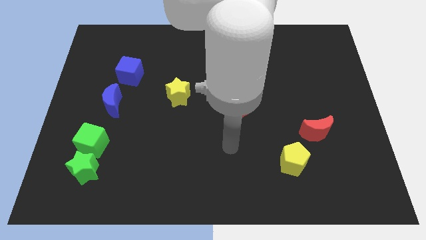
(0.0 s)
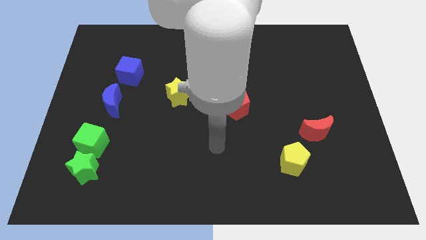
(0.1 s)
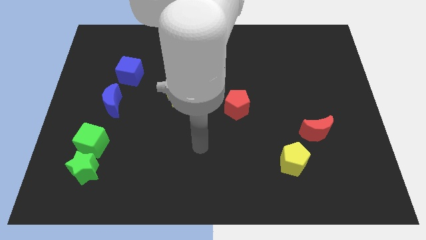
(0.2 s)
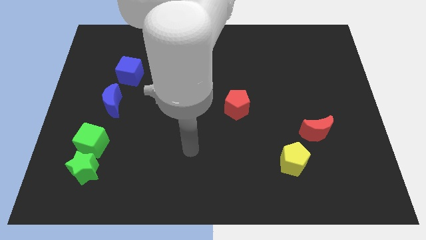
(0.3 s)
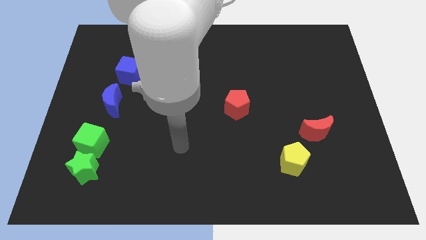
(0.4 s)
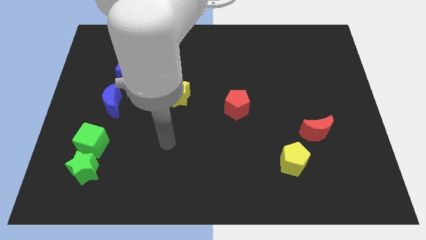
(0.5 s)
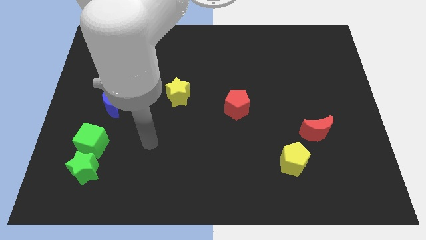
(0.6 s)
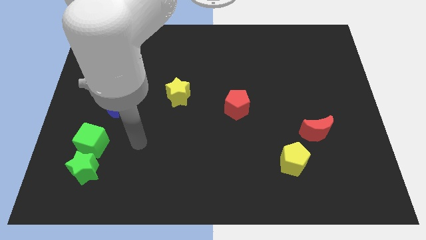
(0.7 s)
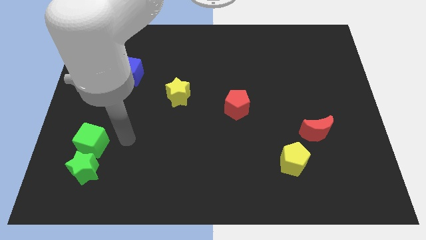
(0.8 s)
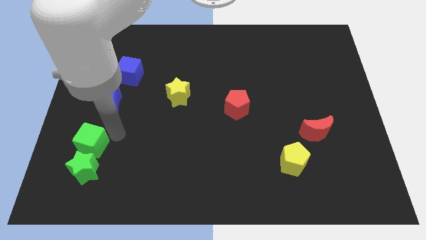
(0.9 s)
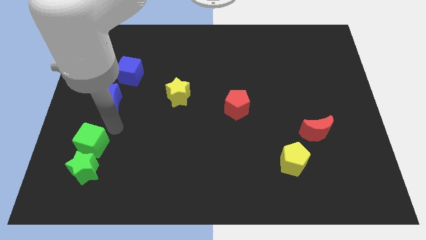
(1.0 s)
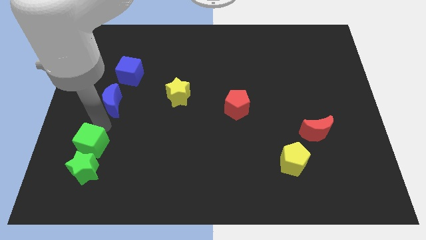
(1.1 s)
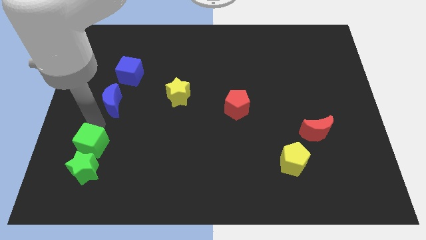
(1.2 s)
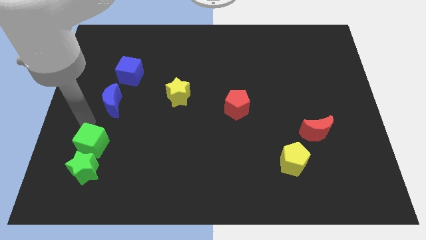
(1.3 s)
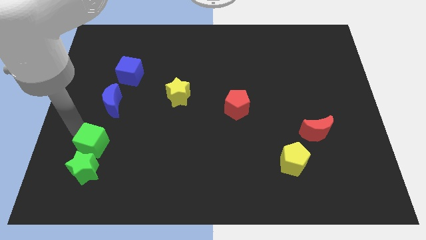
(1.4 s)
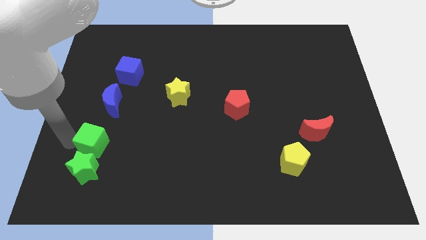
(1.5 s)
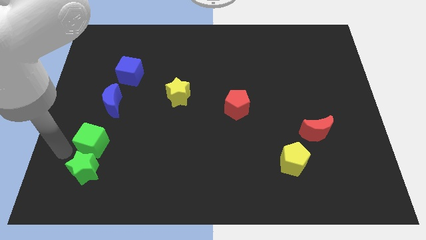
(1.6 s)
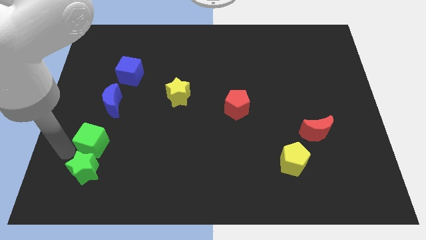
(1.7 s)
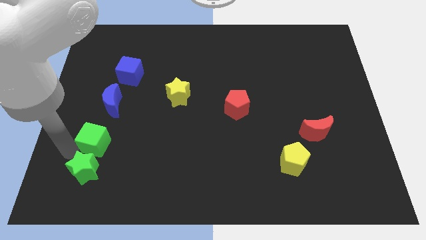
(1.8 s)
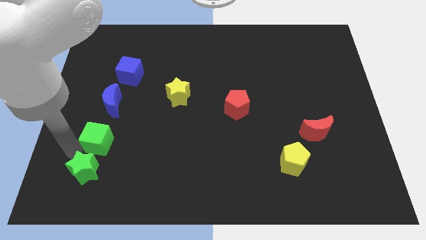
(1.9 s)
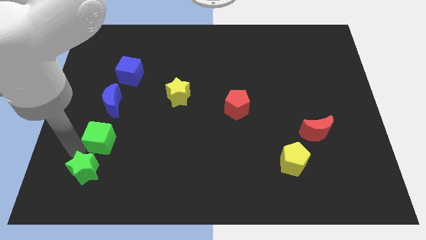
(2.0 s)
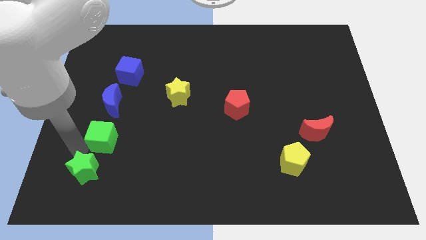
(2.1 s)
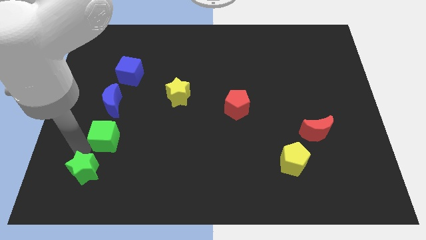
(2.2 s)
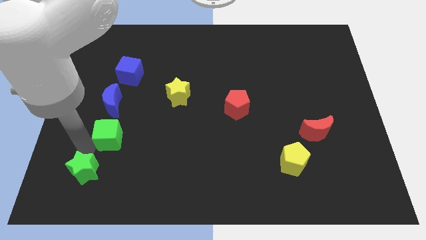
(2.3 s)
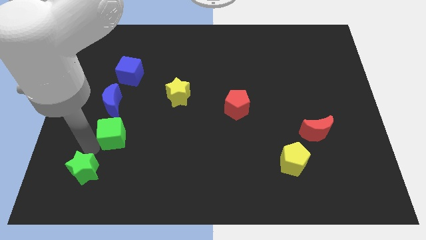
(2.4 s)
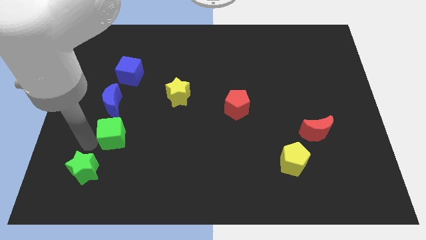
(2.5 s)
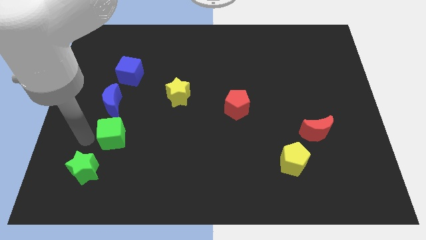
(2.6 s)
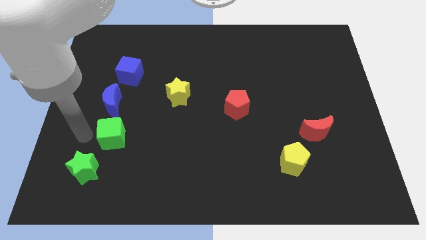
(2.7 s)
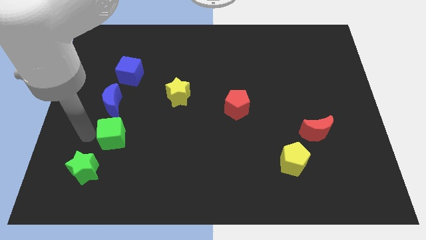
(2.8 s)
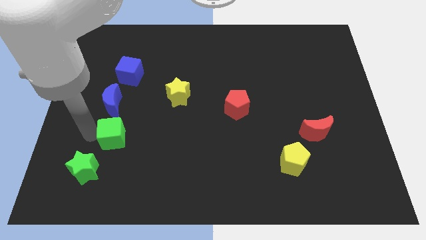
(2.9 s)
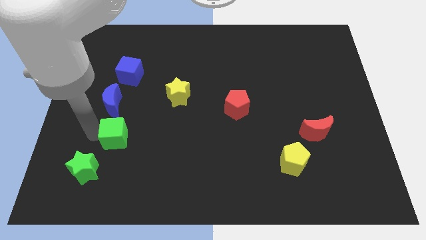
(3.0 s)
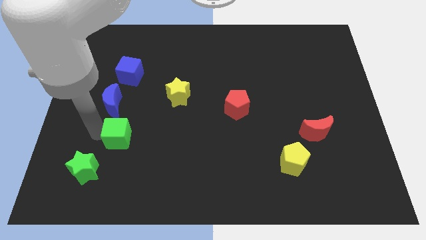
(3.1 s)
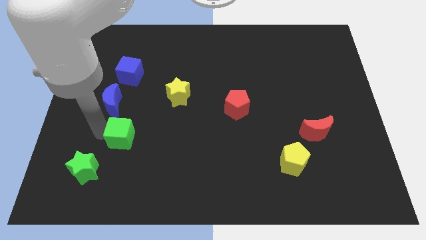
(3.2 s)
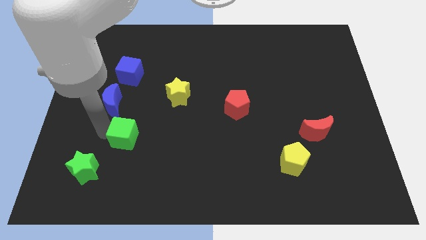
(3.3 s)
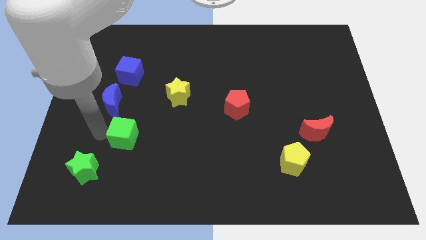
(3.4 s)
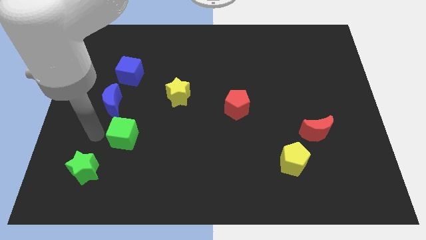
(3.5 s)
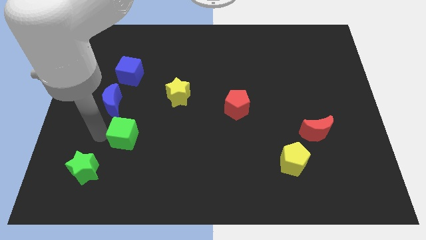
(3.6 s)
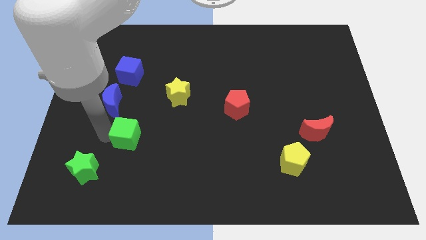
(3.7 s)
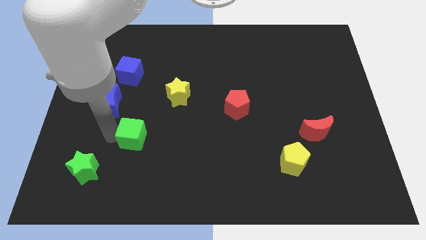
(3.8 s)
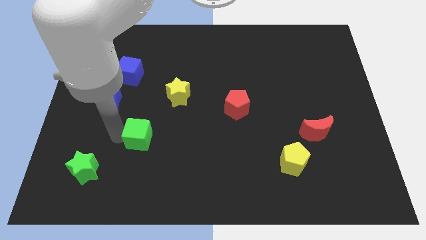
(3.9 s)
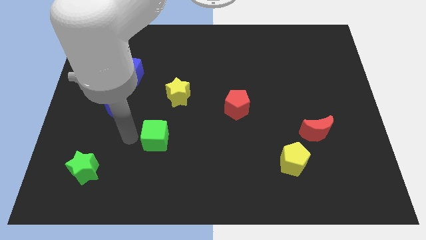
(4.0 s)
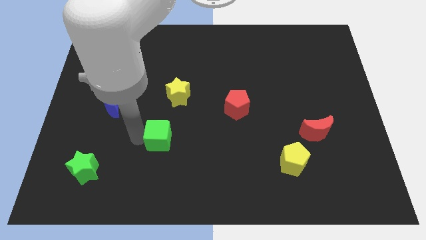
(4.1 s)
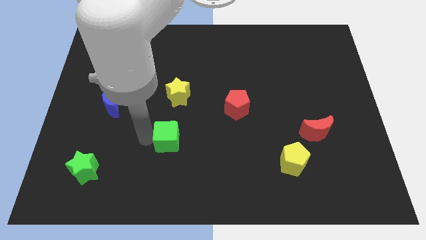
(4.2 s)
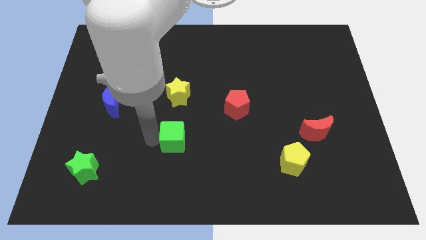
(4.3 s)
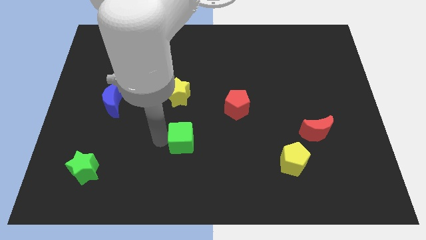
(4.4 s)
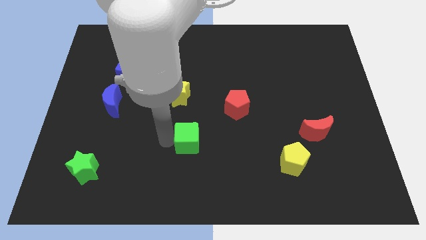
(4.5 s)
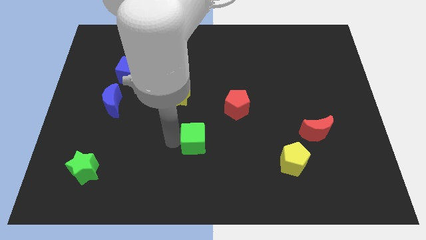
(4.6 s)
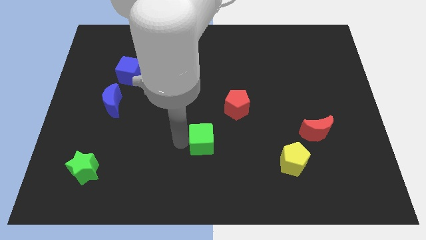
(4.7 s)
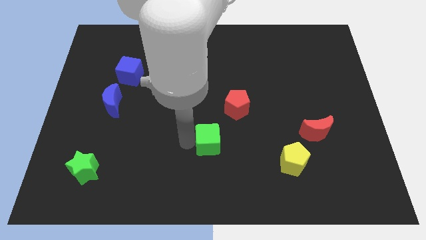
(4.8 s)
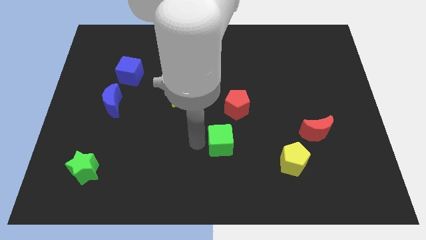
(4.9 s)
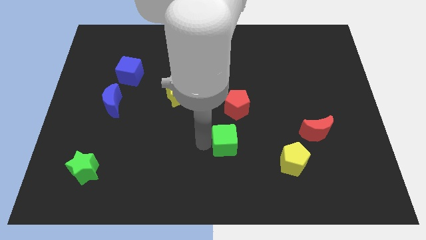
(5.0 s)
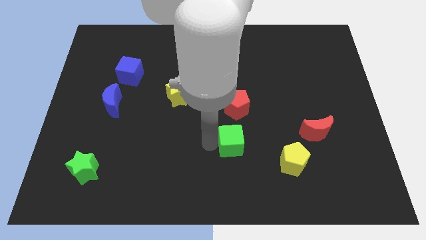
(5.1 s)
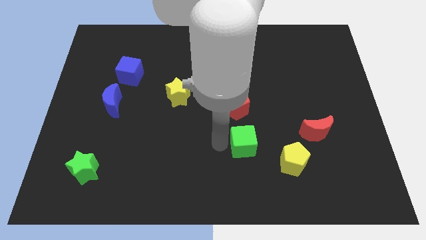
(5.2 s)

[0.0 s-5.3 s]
move the green cube to the top left side of the yellow pentagon

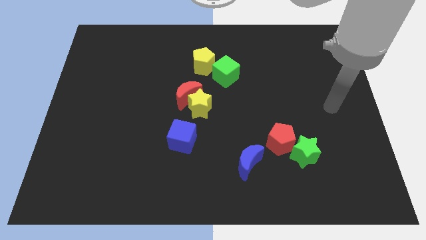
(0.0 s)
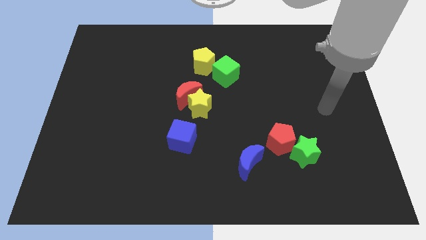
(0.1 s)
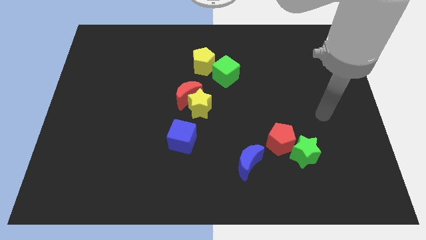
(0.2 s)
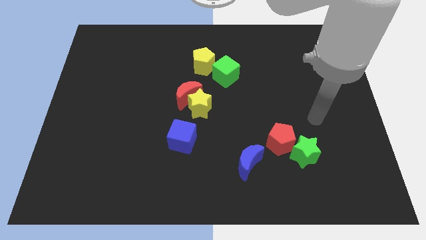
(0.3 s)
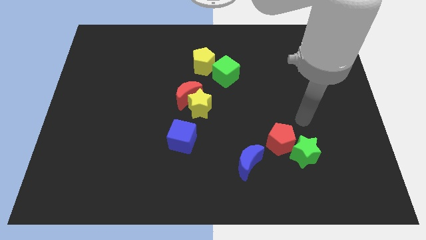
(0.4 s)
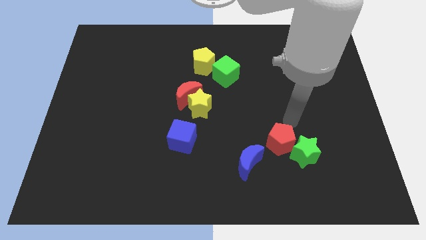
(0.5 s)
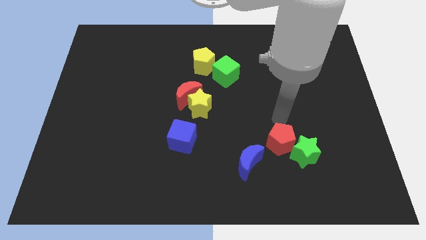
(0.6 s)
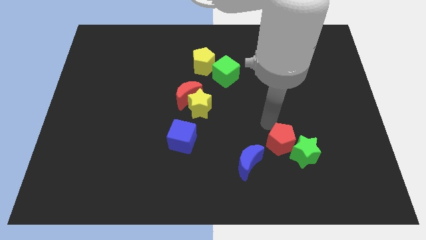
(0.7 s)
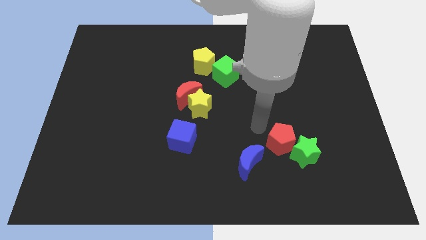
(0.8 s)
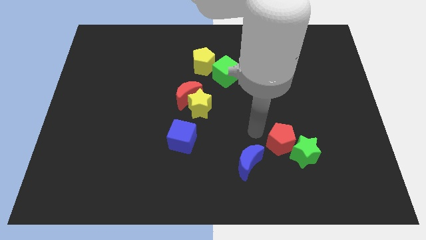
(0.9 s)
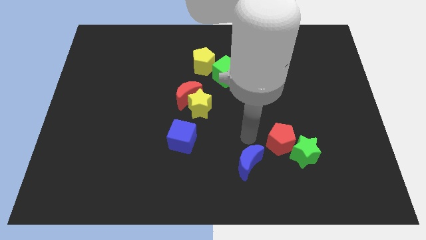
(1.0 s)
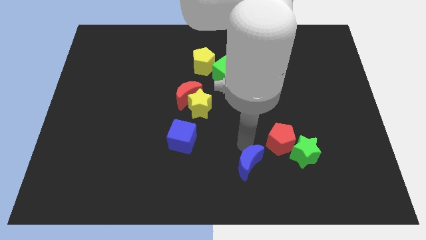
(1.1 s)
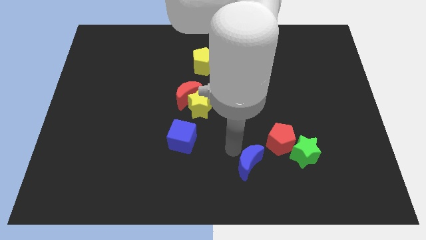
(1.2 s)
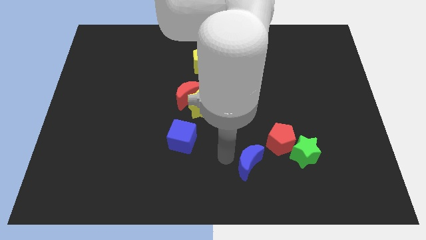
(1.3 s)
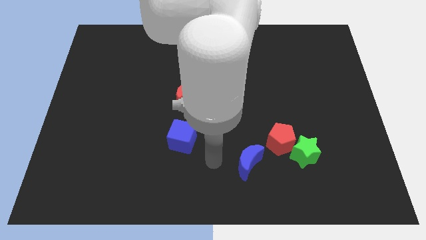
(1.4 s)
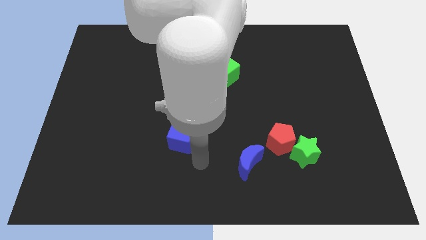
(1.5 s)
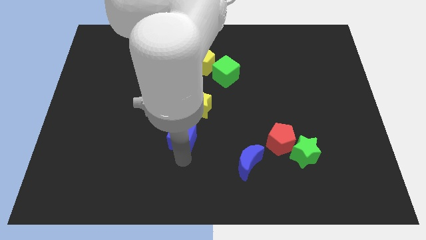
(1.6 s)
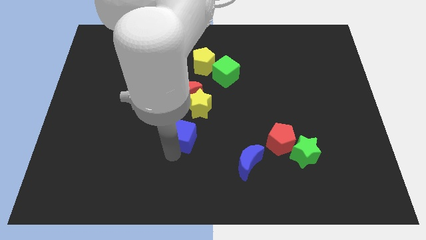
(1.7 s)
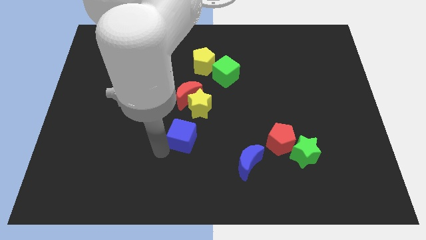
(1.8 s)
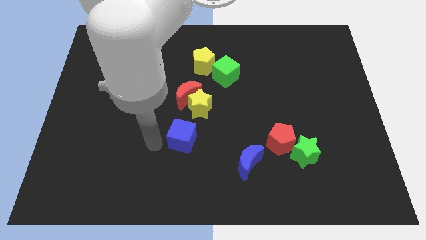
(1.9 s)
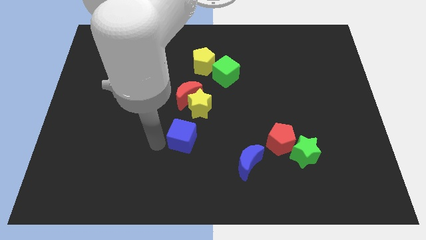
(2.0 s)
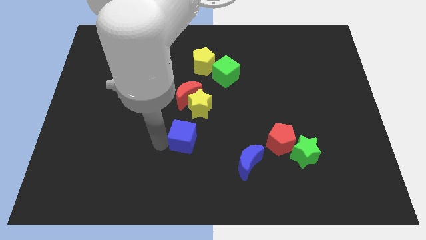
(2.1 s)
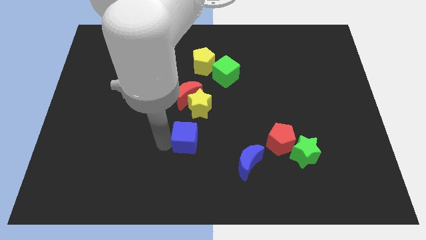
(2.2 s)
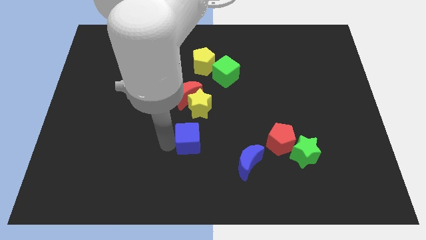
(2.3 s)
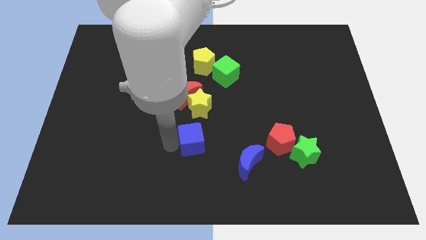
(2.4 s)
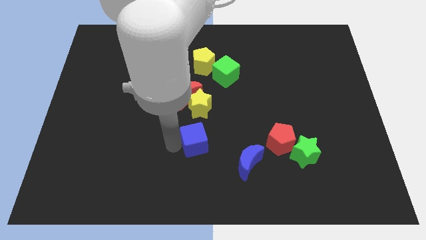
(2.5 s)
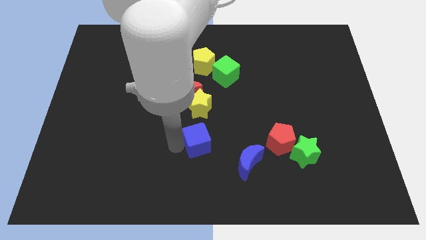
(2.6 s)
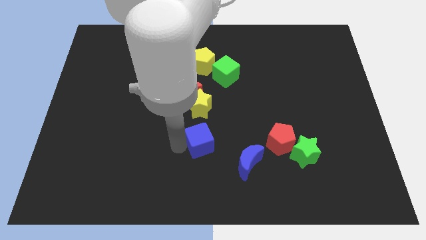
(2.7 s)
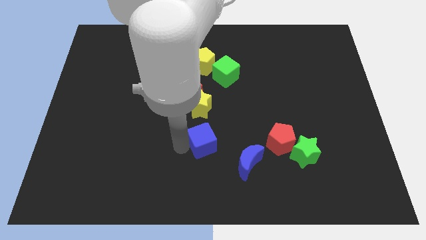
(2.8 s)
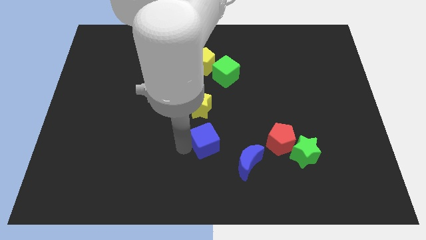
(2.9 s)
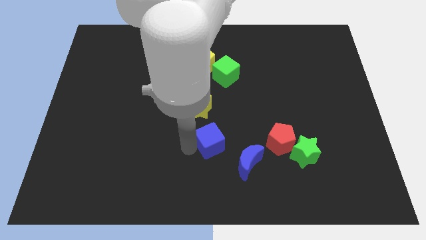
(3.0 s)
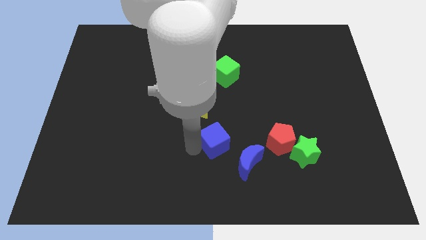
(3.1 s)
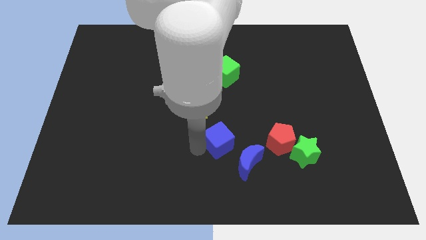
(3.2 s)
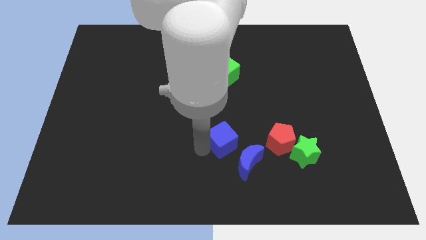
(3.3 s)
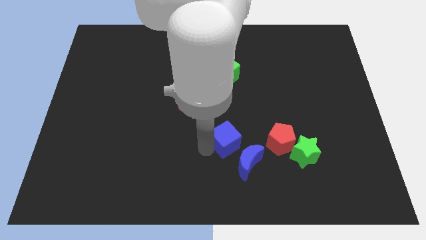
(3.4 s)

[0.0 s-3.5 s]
slide the blue cube above the blue moon
